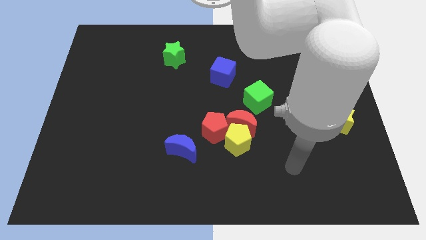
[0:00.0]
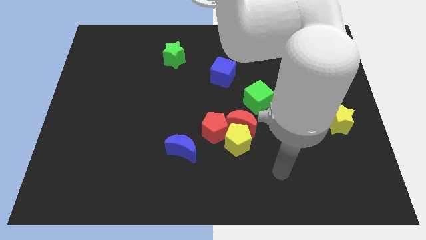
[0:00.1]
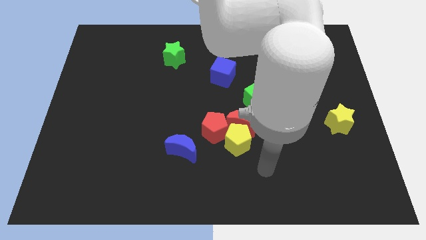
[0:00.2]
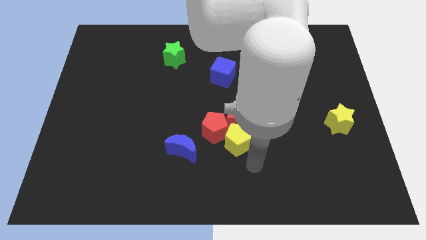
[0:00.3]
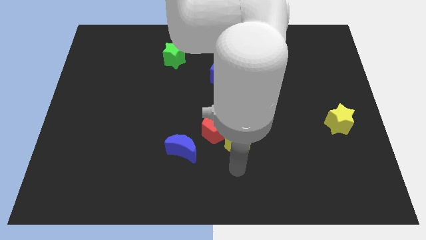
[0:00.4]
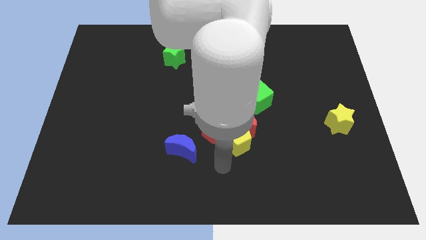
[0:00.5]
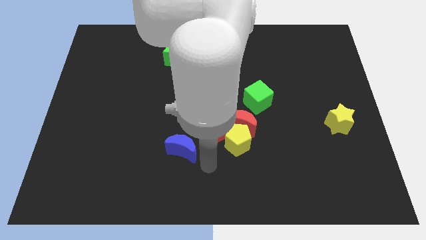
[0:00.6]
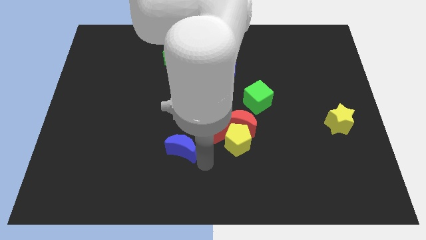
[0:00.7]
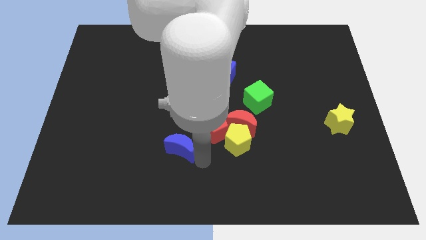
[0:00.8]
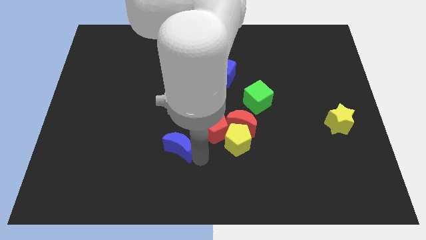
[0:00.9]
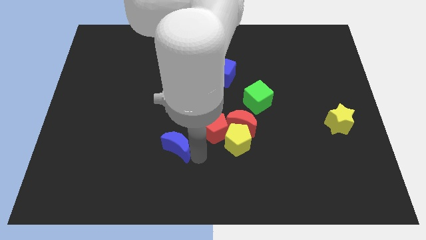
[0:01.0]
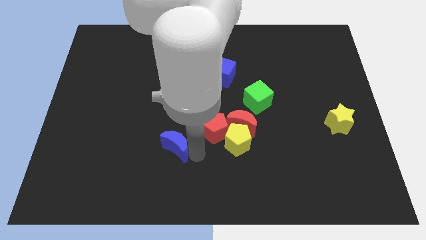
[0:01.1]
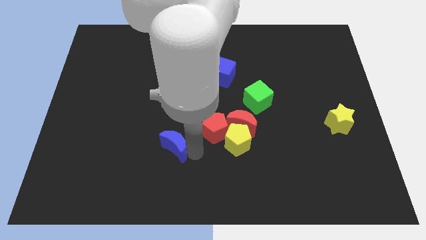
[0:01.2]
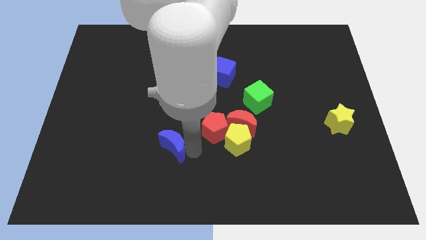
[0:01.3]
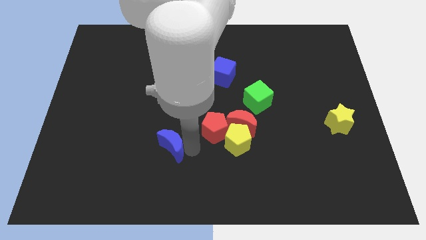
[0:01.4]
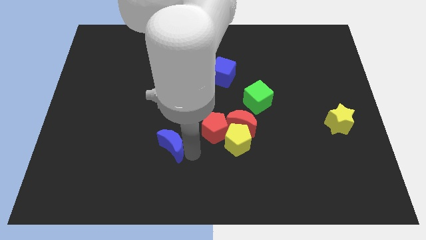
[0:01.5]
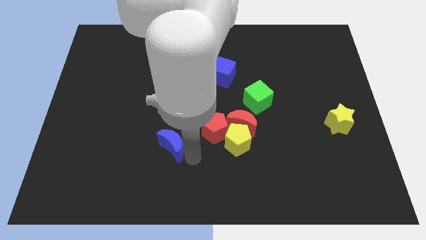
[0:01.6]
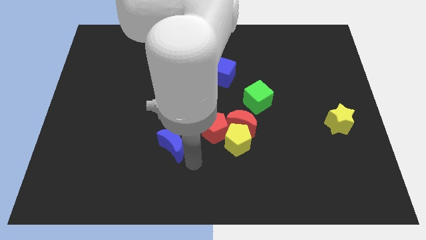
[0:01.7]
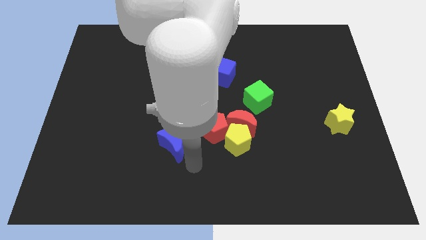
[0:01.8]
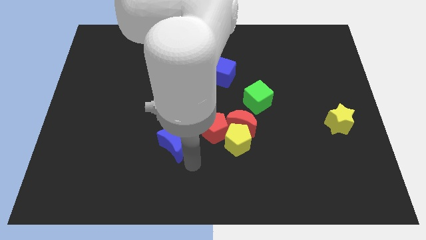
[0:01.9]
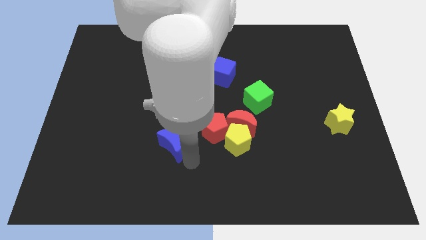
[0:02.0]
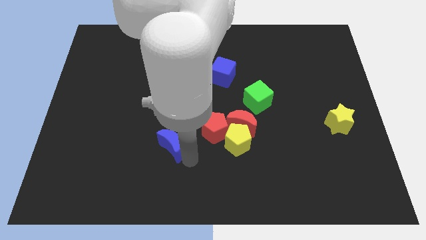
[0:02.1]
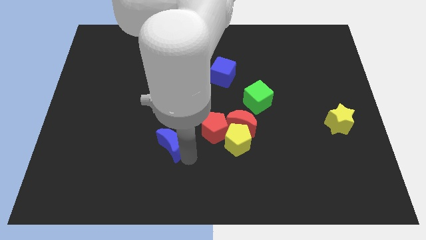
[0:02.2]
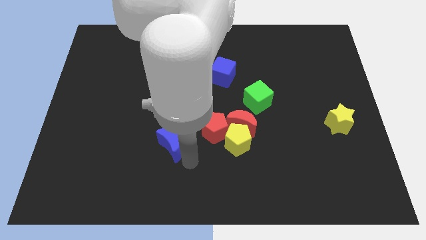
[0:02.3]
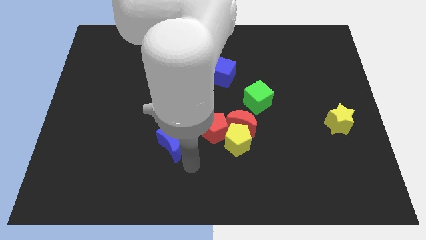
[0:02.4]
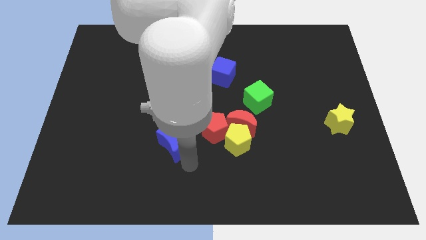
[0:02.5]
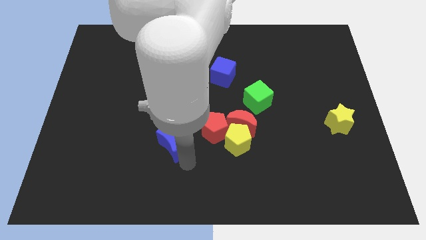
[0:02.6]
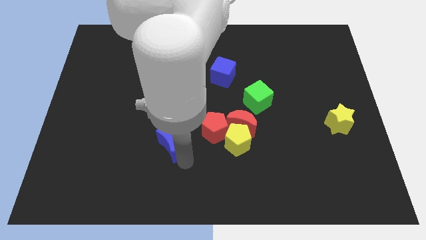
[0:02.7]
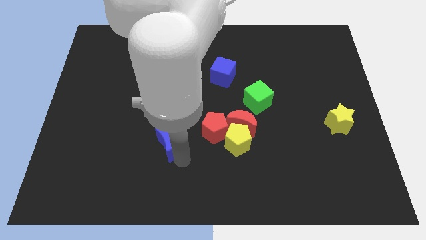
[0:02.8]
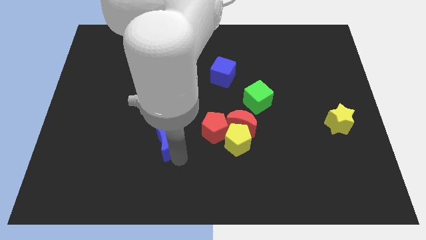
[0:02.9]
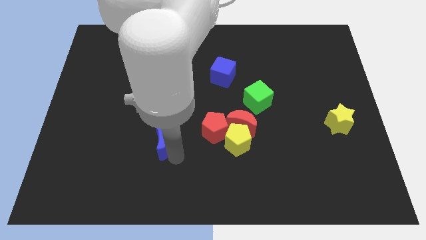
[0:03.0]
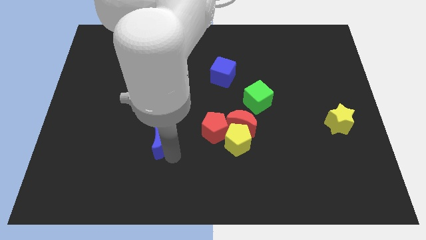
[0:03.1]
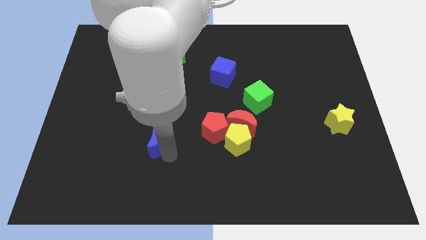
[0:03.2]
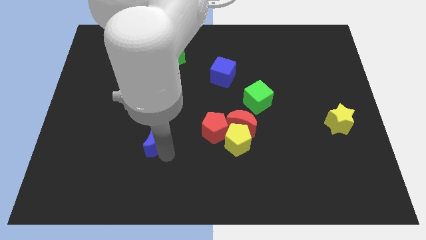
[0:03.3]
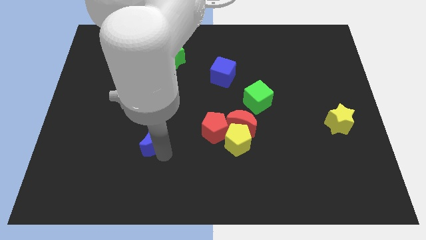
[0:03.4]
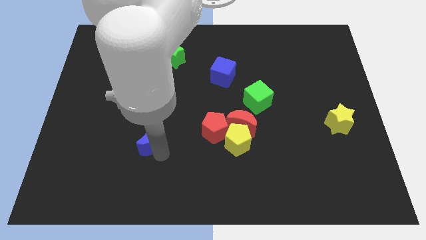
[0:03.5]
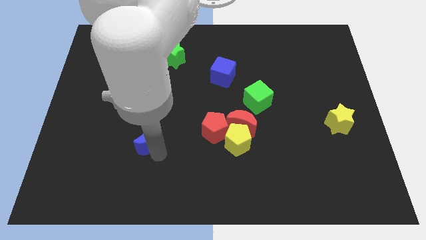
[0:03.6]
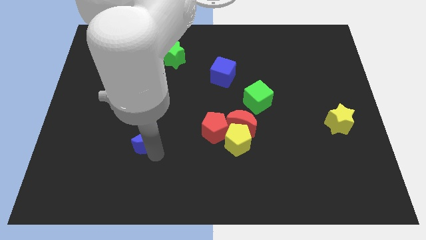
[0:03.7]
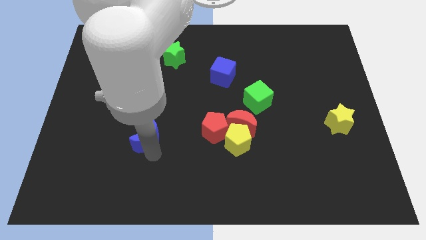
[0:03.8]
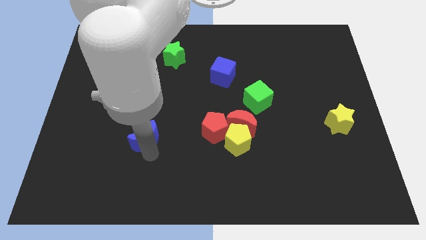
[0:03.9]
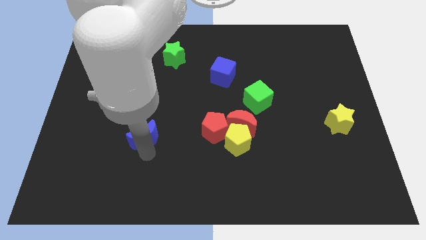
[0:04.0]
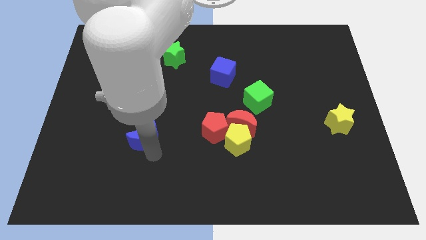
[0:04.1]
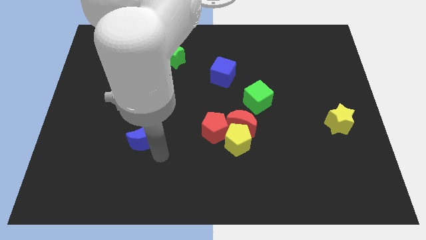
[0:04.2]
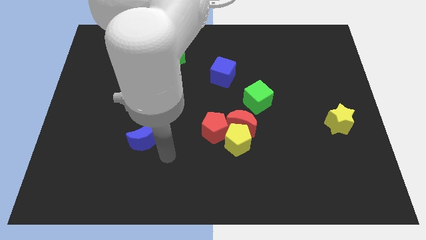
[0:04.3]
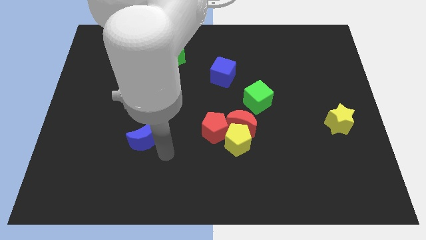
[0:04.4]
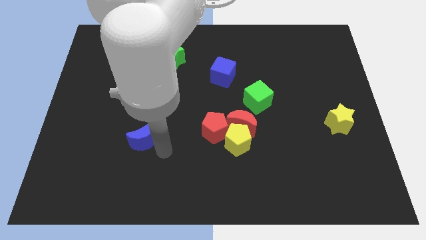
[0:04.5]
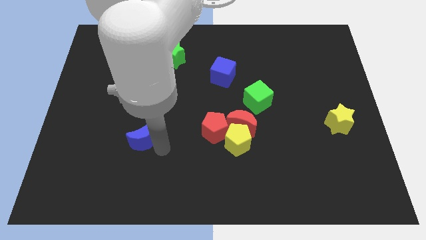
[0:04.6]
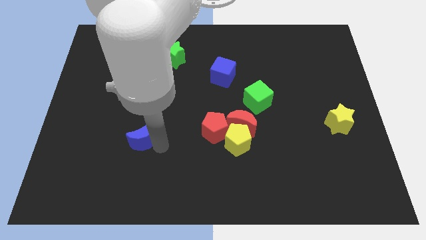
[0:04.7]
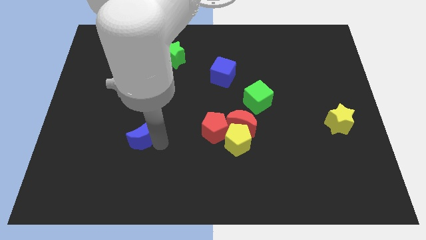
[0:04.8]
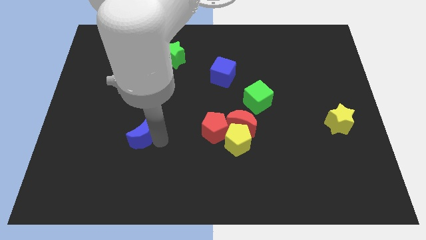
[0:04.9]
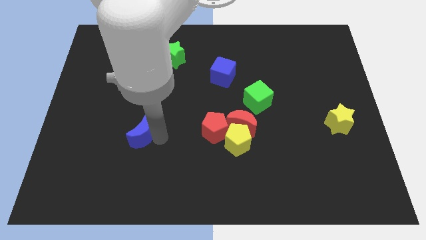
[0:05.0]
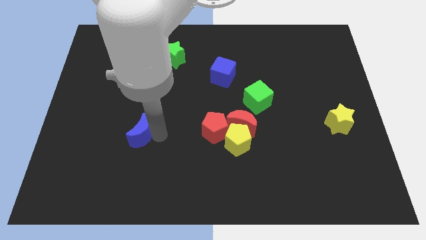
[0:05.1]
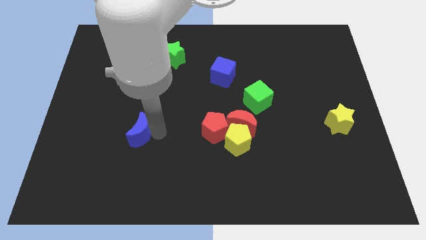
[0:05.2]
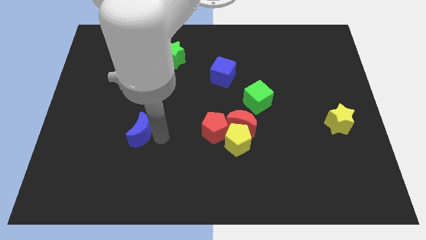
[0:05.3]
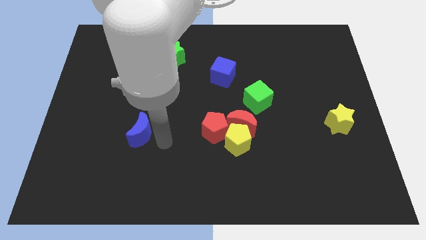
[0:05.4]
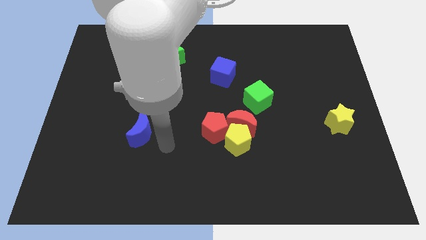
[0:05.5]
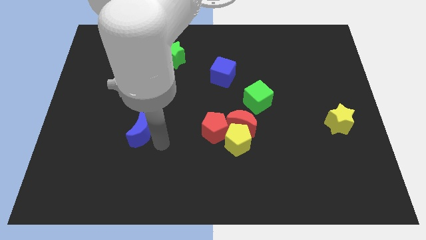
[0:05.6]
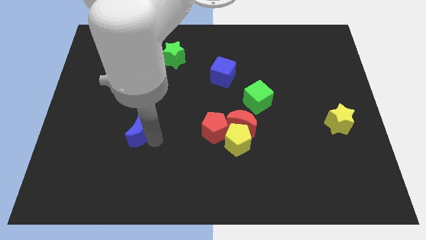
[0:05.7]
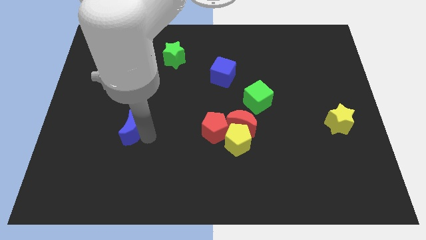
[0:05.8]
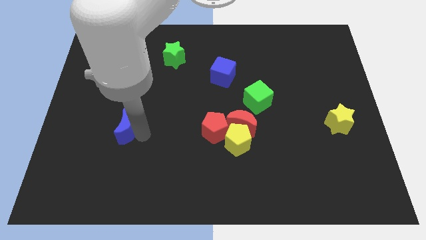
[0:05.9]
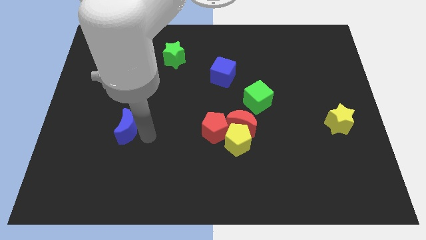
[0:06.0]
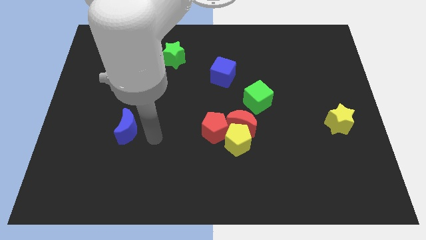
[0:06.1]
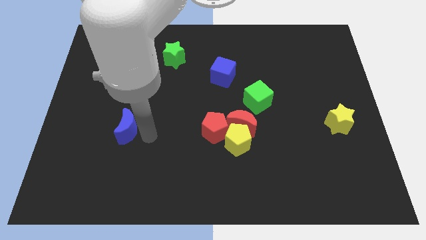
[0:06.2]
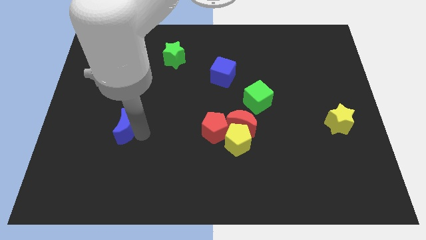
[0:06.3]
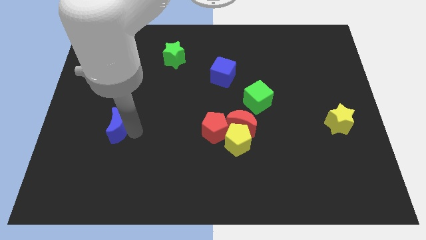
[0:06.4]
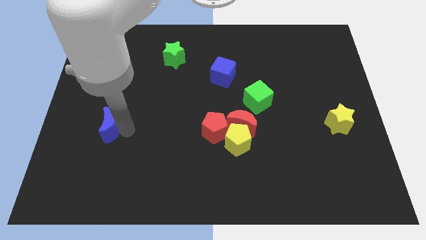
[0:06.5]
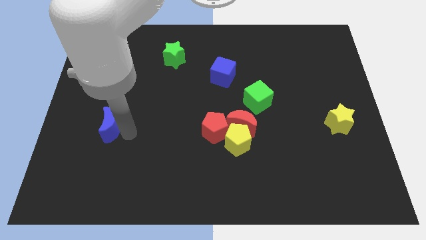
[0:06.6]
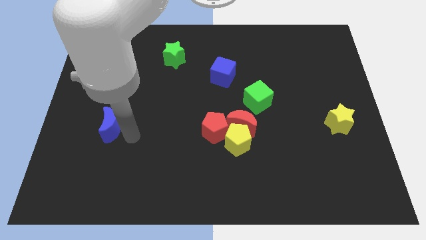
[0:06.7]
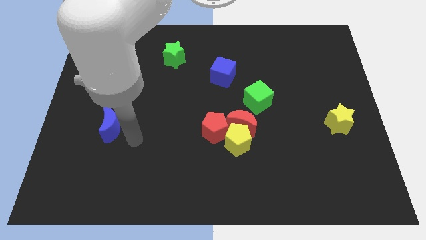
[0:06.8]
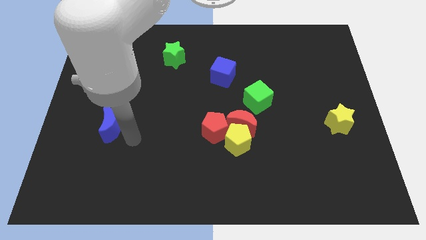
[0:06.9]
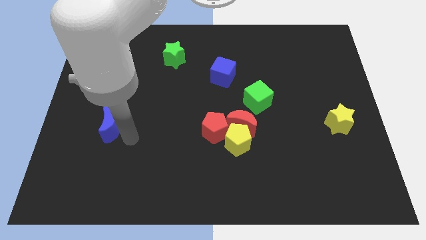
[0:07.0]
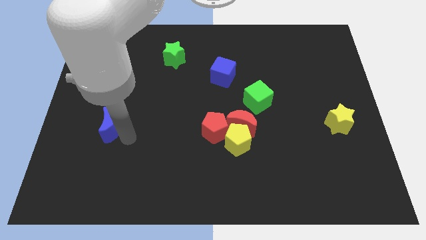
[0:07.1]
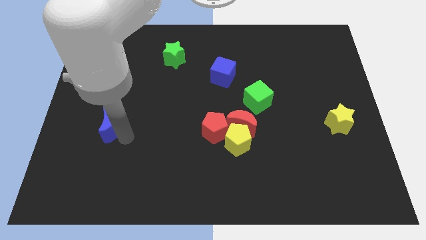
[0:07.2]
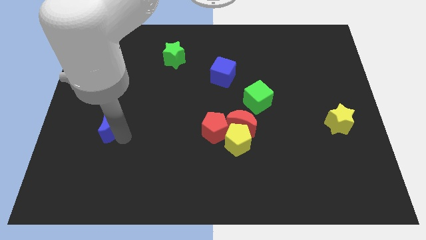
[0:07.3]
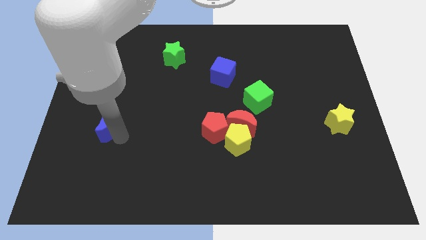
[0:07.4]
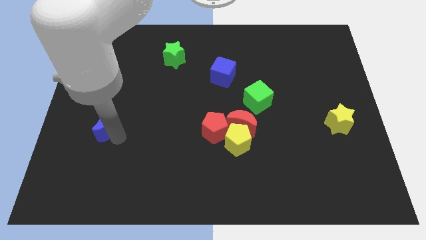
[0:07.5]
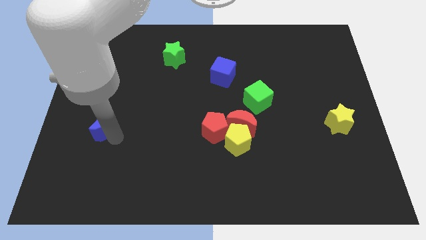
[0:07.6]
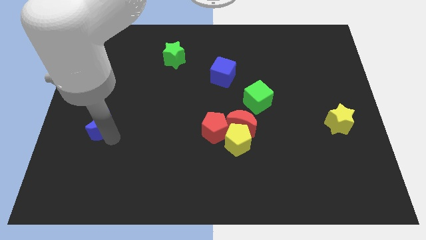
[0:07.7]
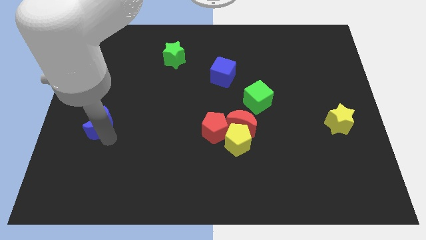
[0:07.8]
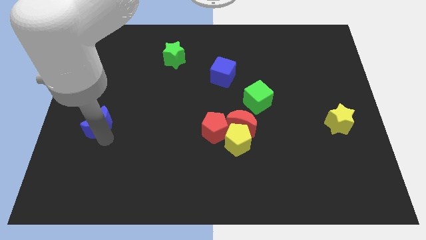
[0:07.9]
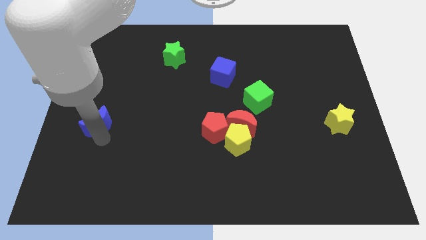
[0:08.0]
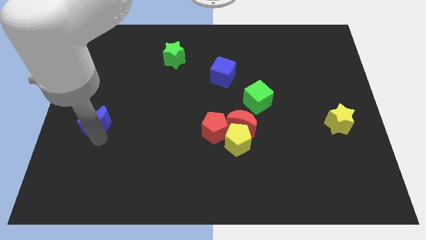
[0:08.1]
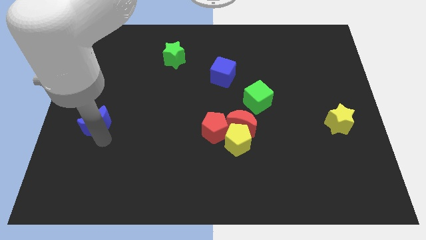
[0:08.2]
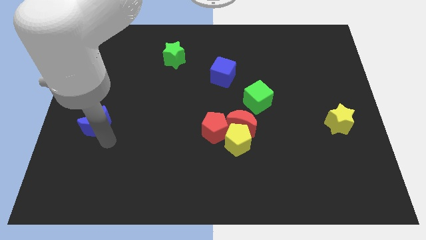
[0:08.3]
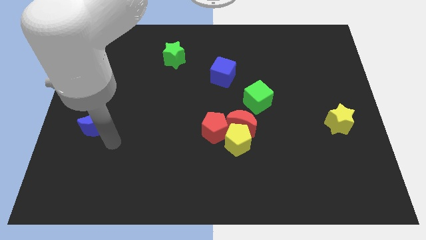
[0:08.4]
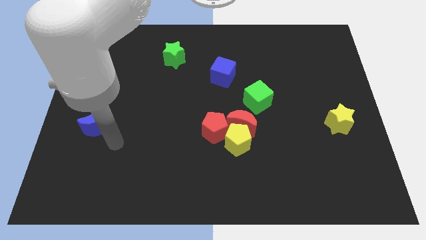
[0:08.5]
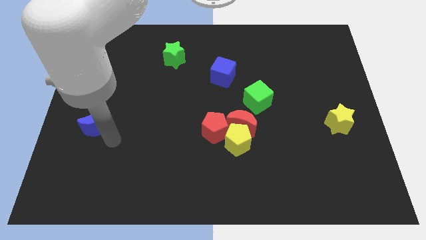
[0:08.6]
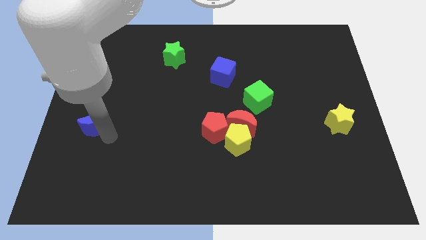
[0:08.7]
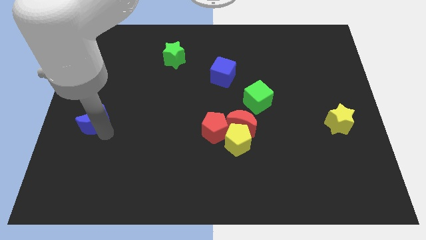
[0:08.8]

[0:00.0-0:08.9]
put the blue moon to the left side of the board
